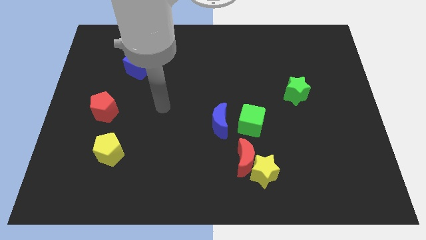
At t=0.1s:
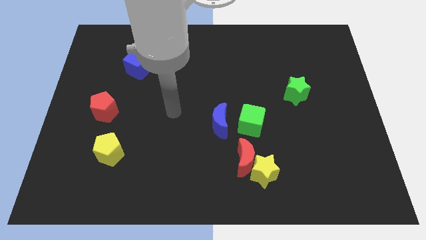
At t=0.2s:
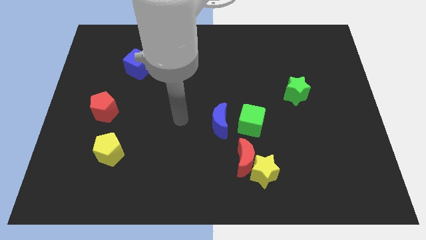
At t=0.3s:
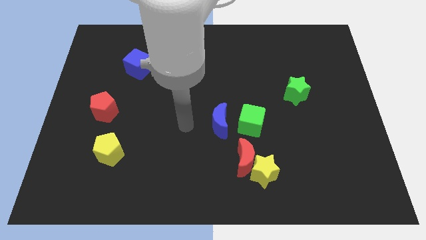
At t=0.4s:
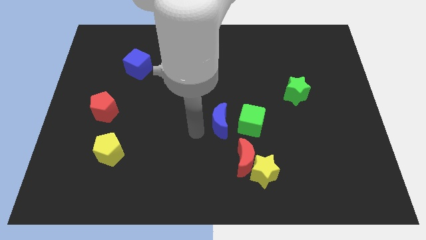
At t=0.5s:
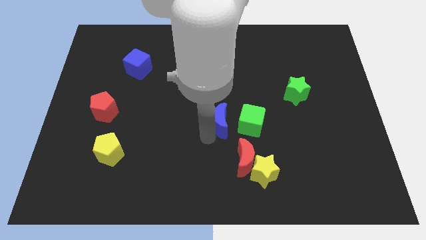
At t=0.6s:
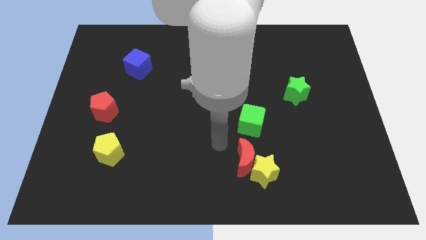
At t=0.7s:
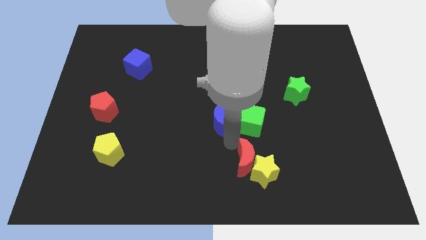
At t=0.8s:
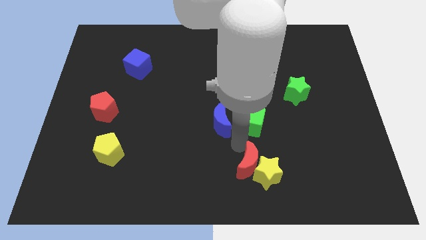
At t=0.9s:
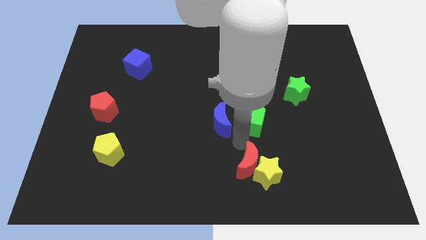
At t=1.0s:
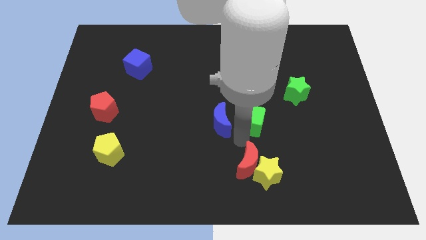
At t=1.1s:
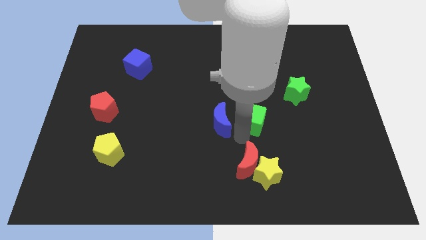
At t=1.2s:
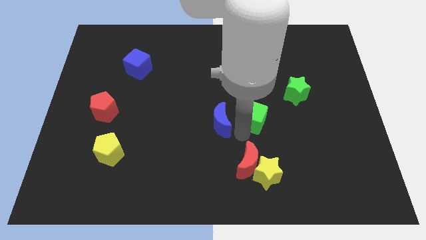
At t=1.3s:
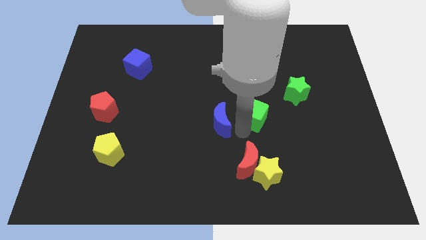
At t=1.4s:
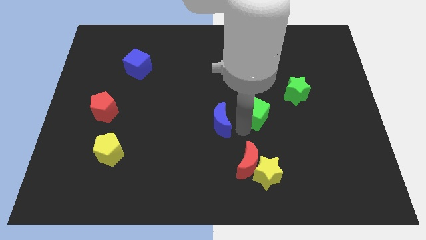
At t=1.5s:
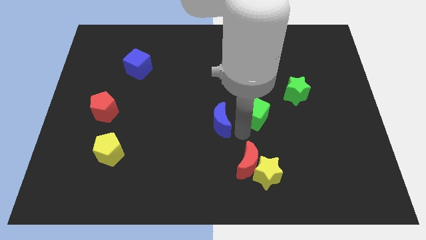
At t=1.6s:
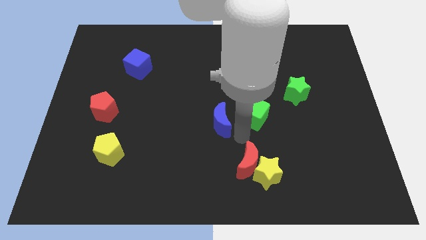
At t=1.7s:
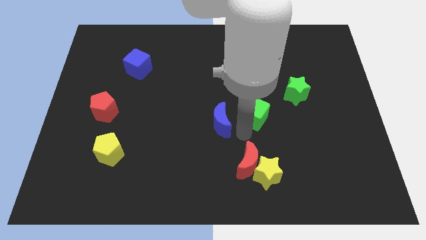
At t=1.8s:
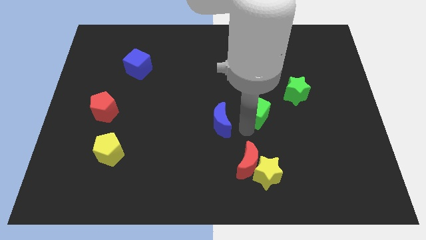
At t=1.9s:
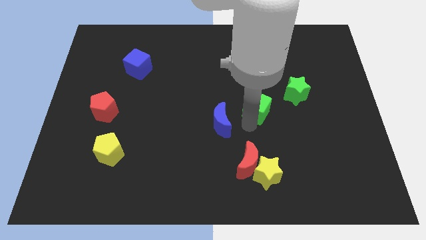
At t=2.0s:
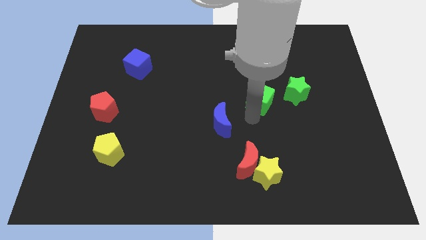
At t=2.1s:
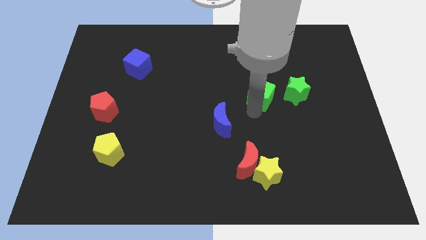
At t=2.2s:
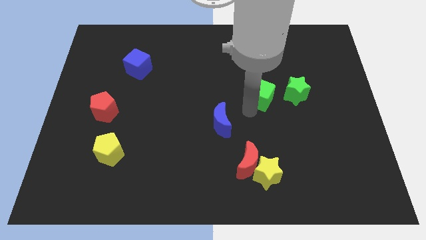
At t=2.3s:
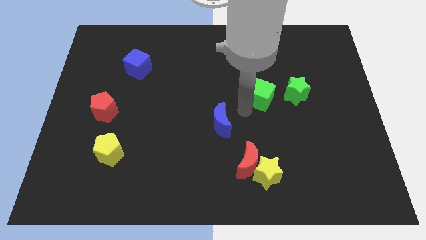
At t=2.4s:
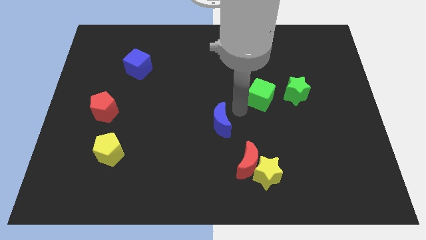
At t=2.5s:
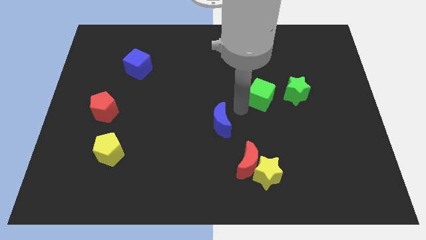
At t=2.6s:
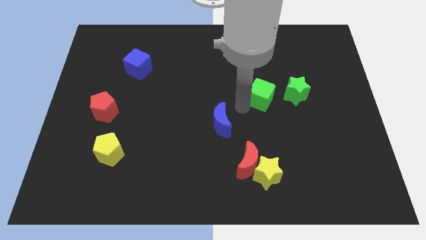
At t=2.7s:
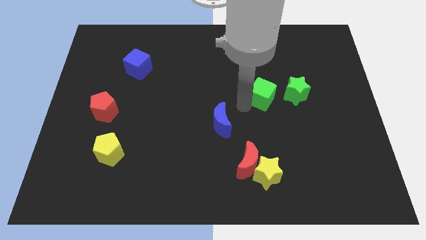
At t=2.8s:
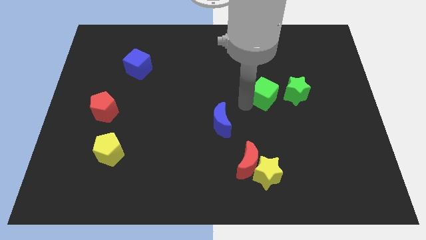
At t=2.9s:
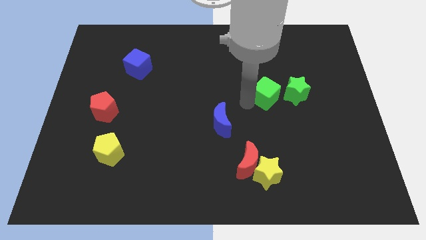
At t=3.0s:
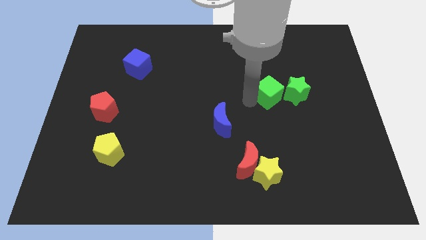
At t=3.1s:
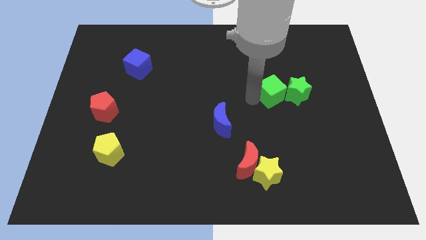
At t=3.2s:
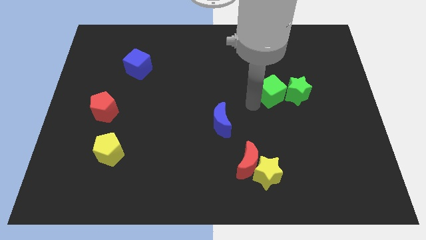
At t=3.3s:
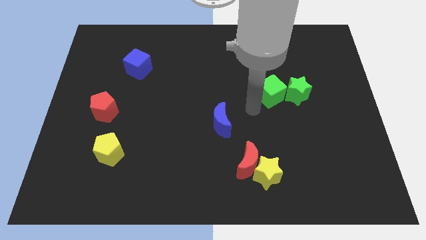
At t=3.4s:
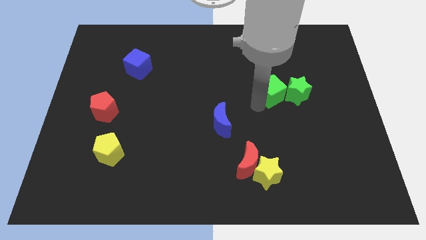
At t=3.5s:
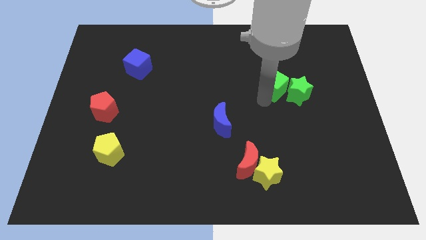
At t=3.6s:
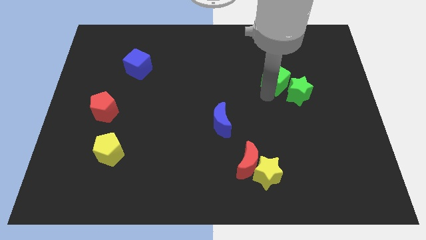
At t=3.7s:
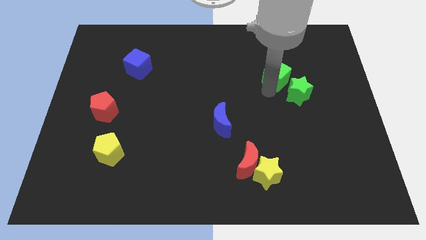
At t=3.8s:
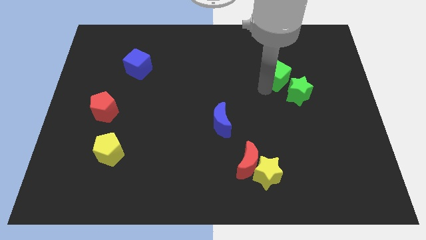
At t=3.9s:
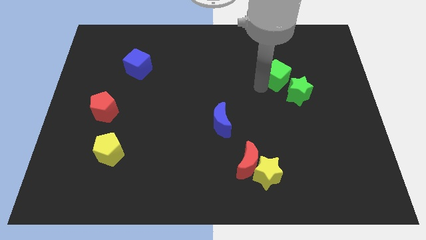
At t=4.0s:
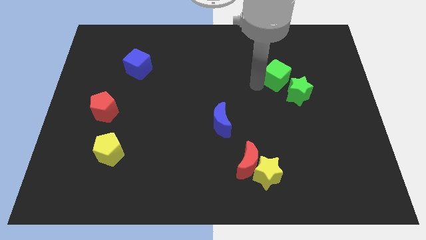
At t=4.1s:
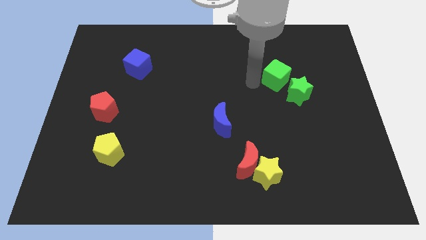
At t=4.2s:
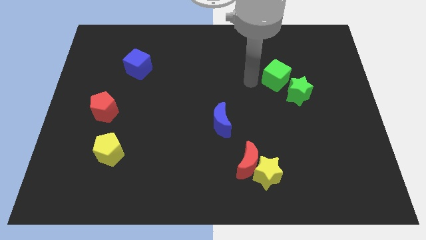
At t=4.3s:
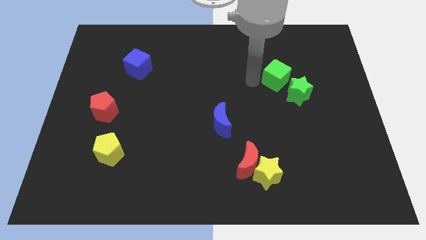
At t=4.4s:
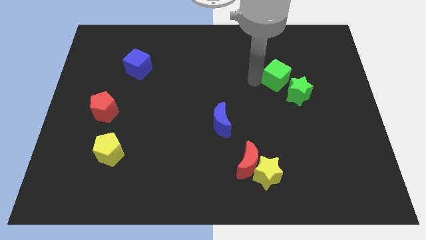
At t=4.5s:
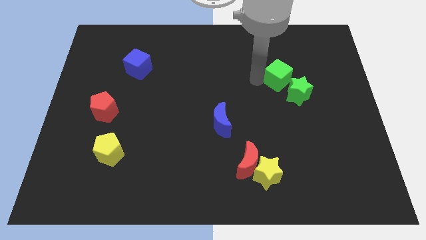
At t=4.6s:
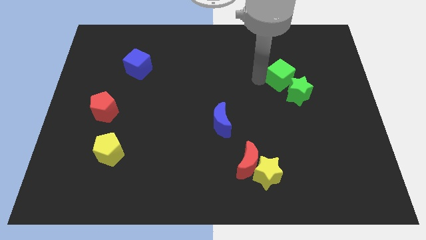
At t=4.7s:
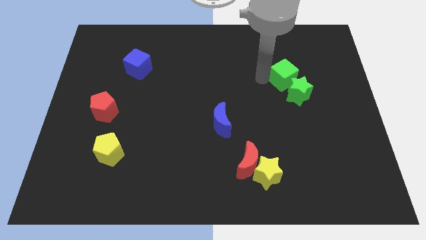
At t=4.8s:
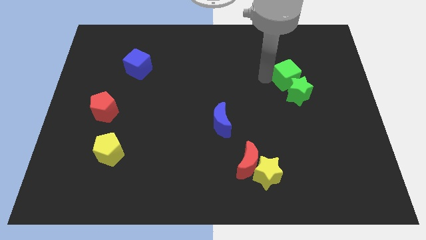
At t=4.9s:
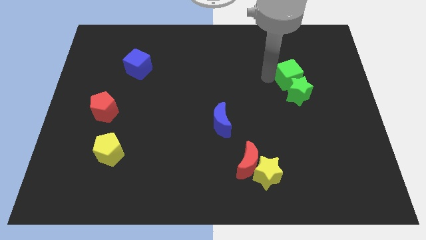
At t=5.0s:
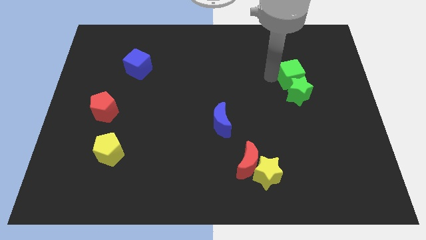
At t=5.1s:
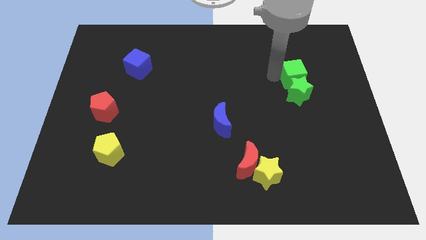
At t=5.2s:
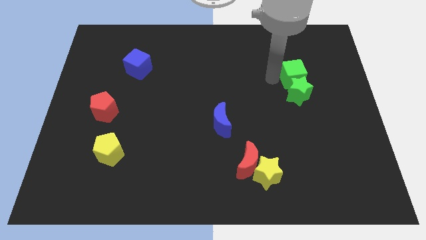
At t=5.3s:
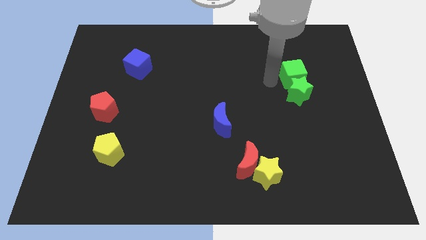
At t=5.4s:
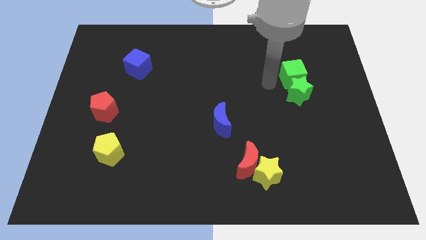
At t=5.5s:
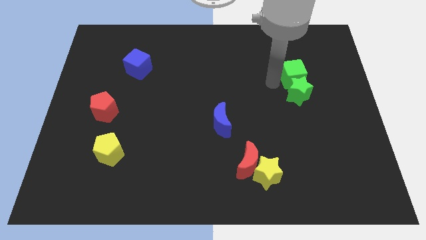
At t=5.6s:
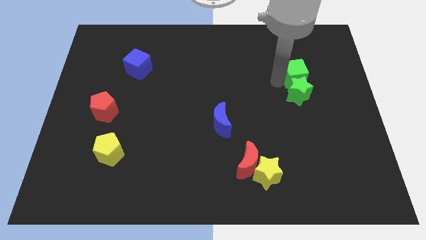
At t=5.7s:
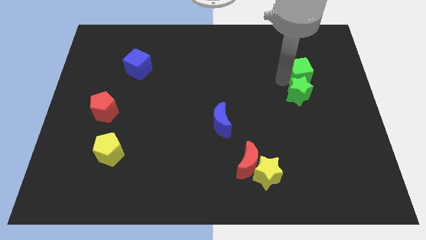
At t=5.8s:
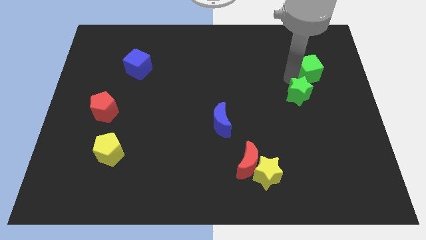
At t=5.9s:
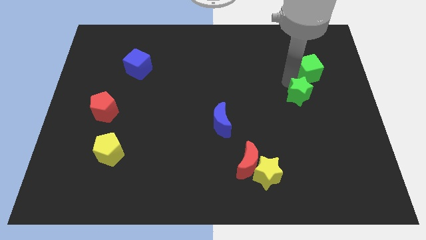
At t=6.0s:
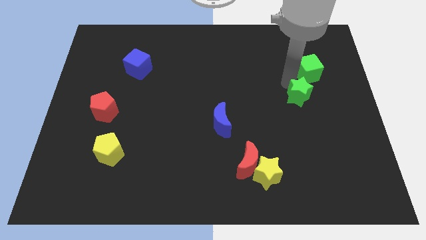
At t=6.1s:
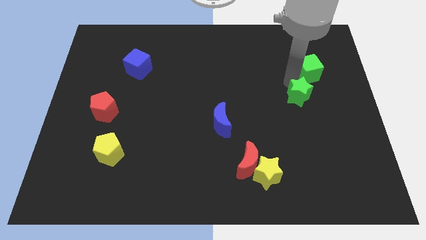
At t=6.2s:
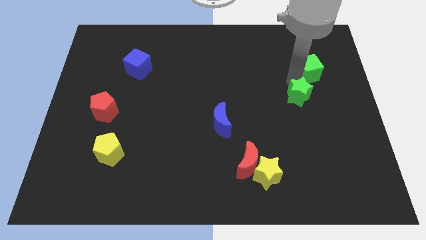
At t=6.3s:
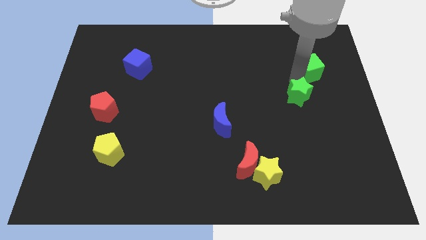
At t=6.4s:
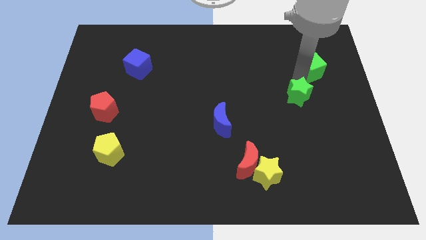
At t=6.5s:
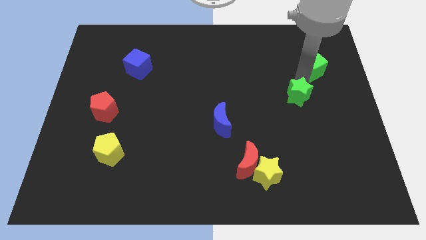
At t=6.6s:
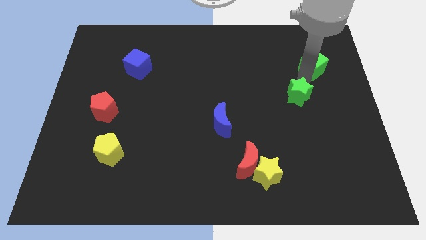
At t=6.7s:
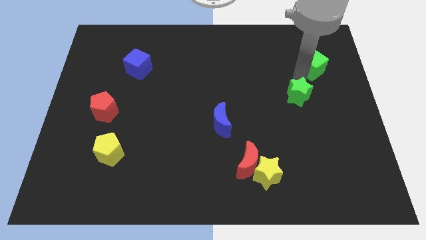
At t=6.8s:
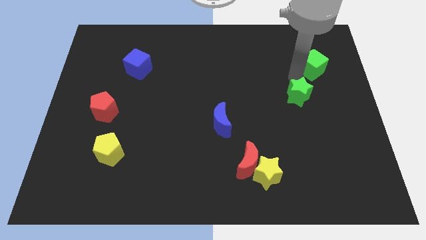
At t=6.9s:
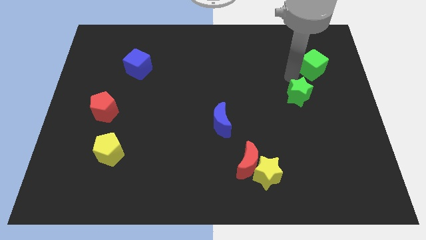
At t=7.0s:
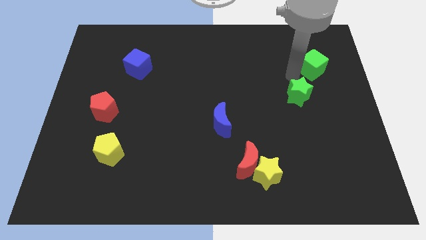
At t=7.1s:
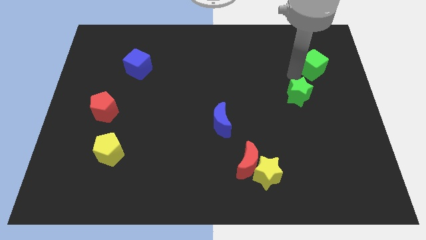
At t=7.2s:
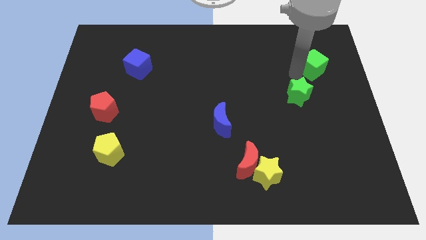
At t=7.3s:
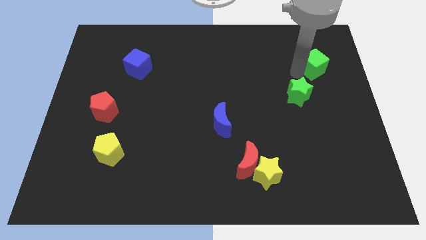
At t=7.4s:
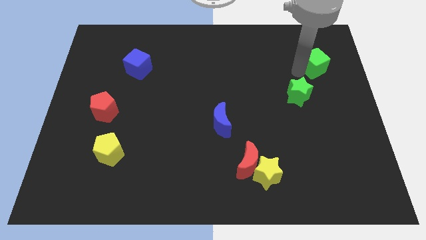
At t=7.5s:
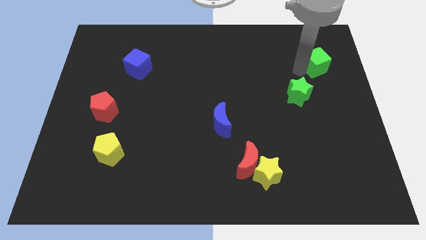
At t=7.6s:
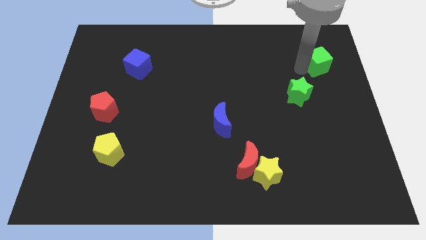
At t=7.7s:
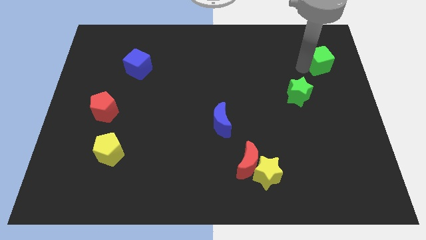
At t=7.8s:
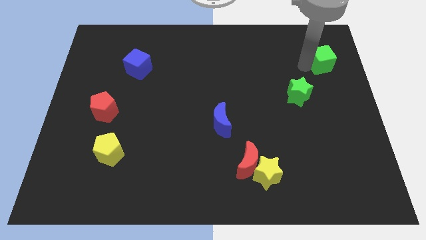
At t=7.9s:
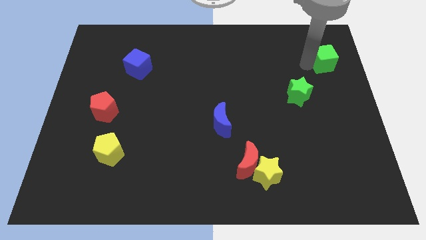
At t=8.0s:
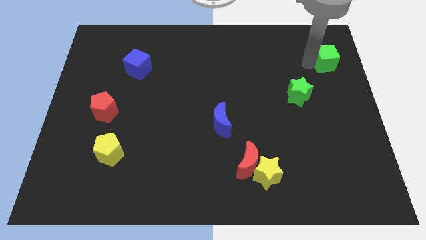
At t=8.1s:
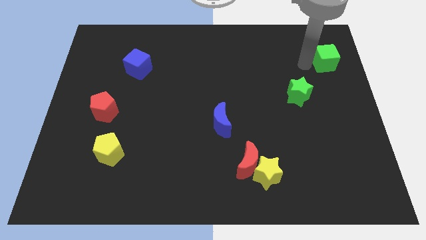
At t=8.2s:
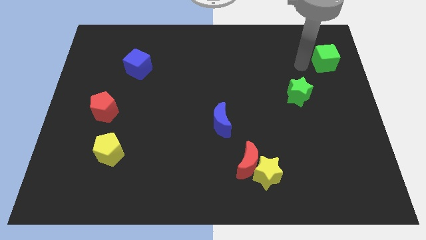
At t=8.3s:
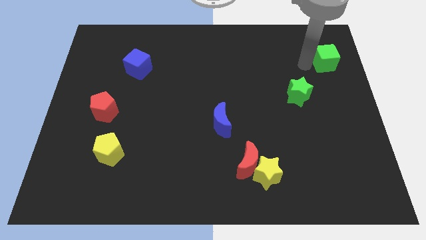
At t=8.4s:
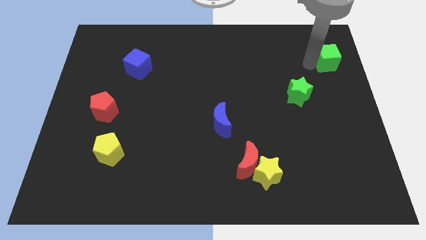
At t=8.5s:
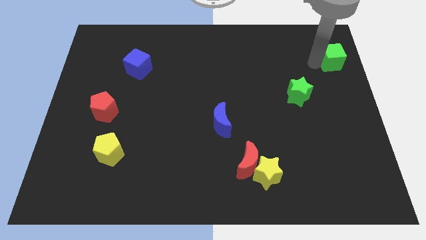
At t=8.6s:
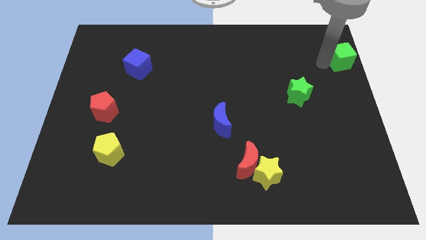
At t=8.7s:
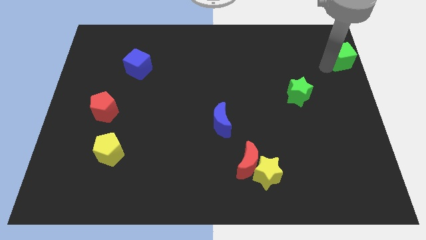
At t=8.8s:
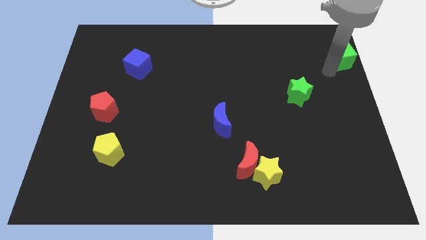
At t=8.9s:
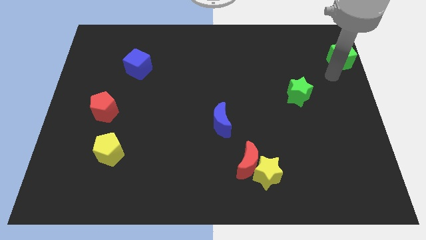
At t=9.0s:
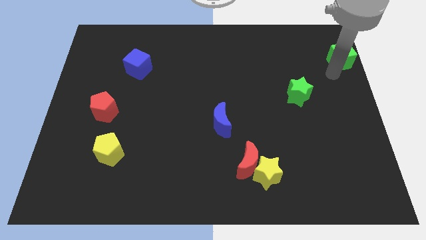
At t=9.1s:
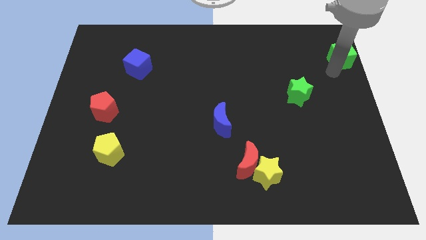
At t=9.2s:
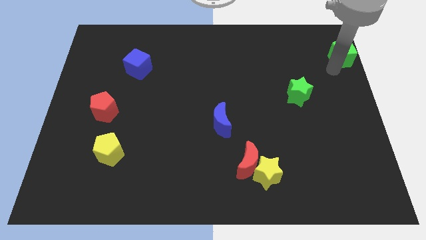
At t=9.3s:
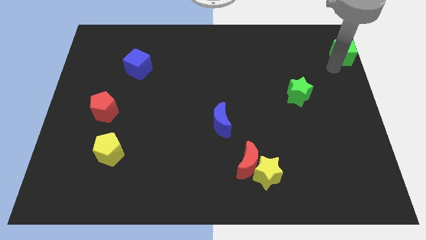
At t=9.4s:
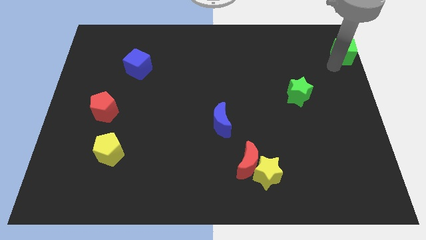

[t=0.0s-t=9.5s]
move the green cube to the top right of the board
